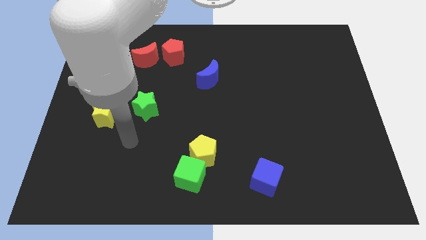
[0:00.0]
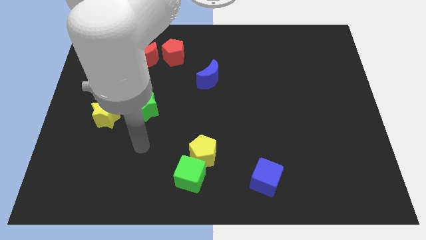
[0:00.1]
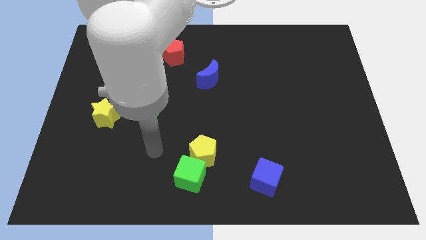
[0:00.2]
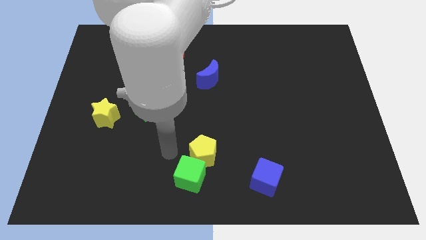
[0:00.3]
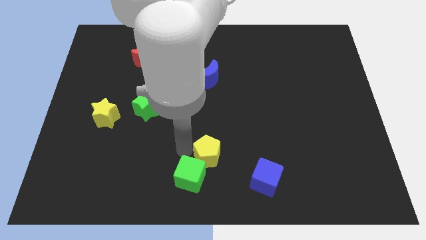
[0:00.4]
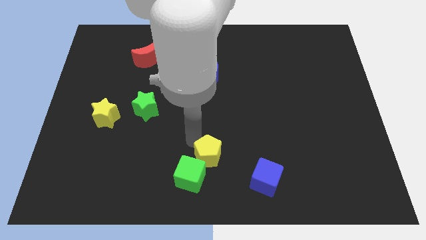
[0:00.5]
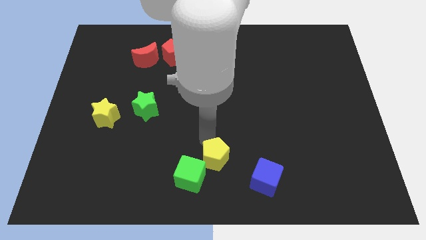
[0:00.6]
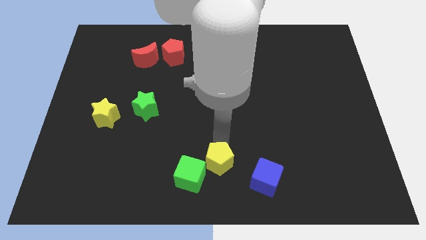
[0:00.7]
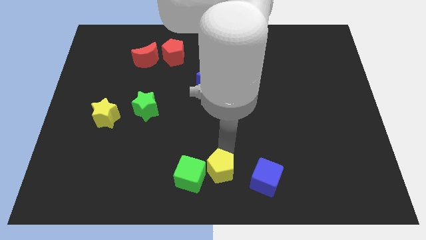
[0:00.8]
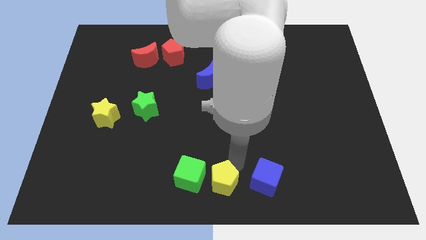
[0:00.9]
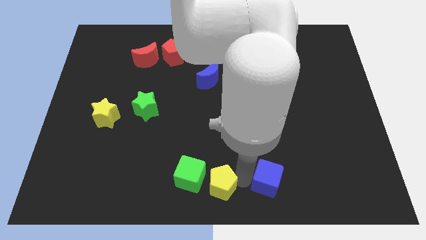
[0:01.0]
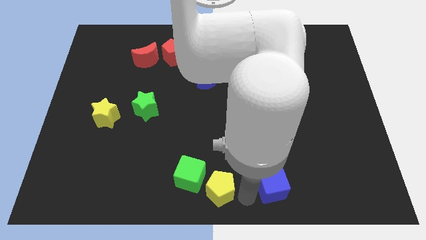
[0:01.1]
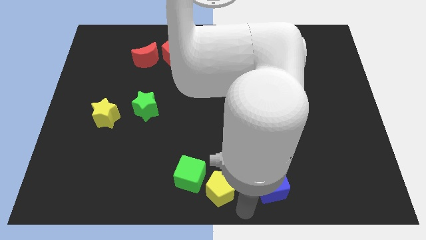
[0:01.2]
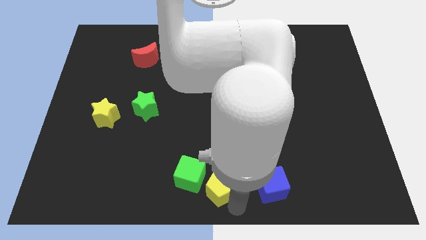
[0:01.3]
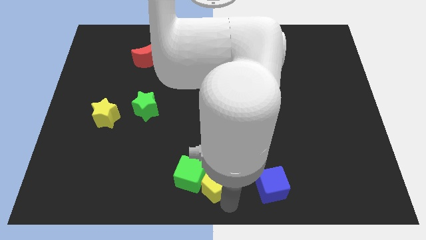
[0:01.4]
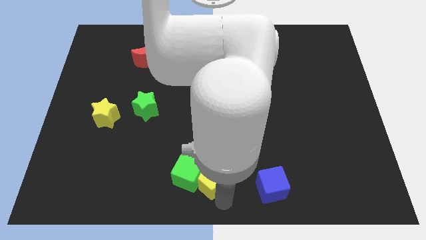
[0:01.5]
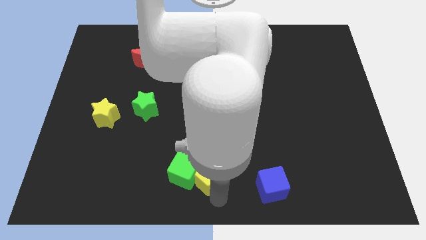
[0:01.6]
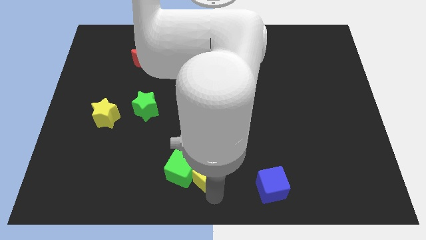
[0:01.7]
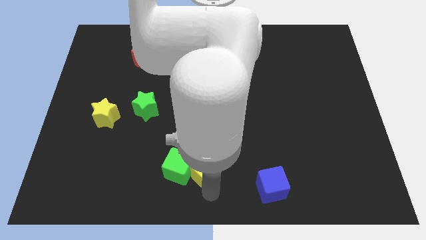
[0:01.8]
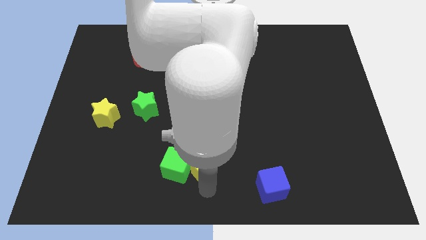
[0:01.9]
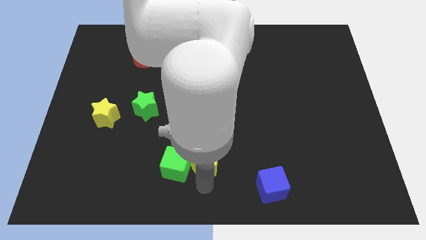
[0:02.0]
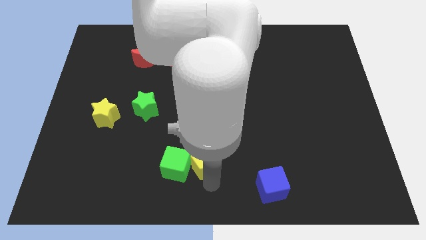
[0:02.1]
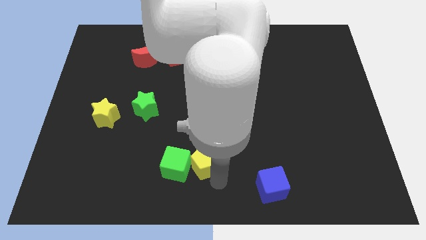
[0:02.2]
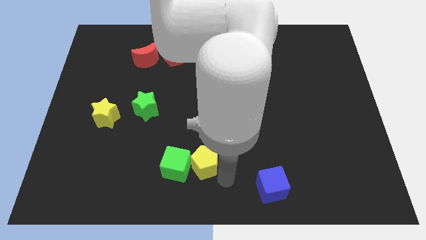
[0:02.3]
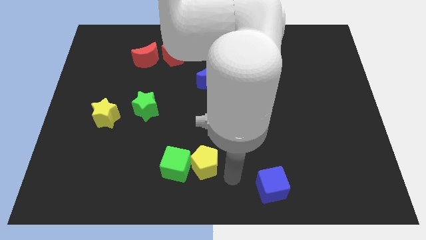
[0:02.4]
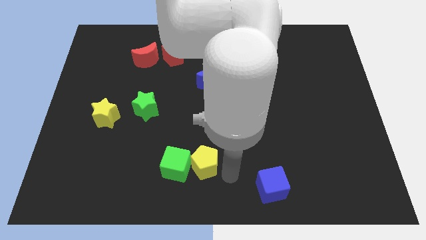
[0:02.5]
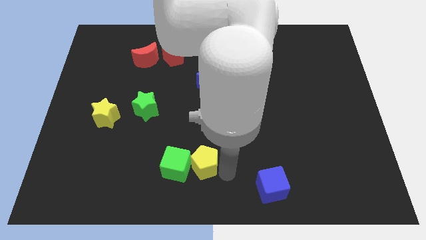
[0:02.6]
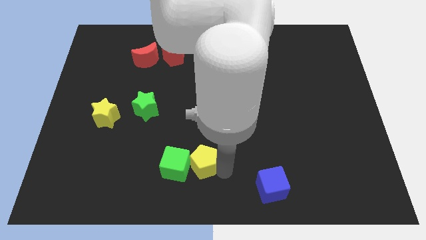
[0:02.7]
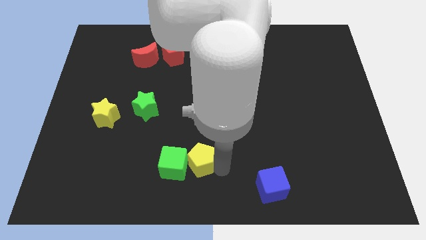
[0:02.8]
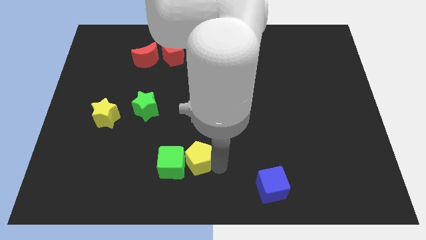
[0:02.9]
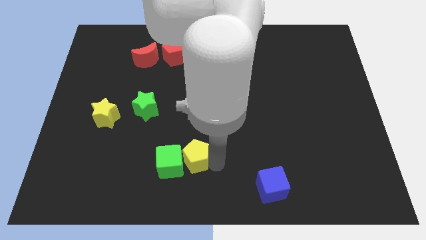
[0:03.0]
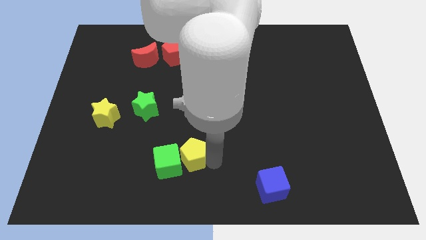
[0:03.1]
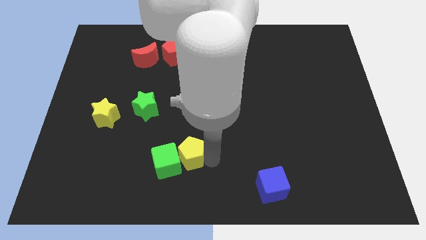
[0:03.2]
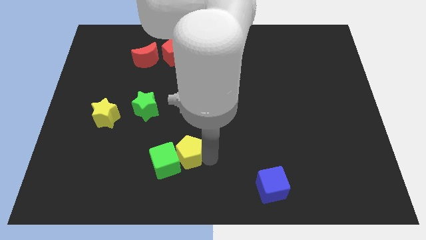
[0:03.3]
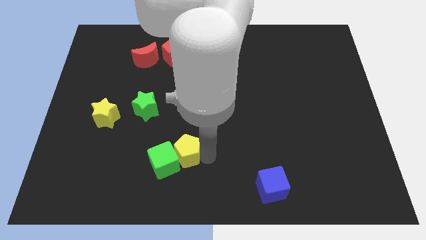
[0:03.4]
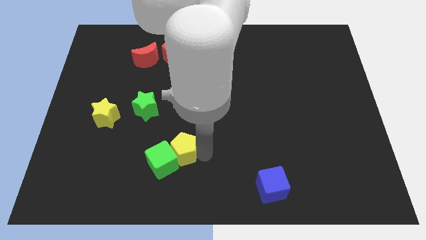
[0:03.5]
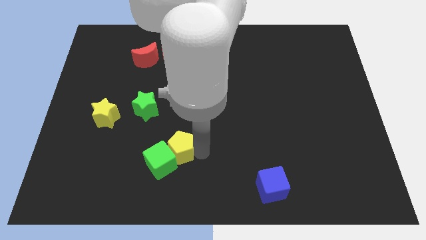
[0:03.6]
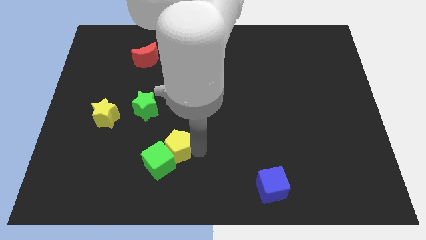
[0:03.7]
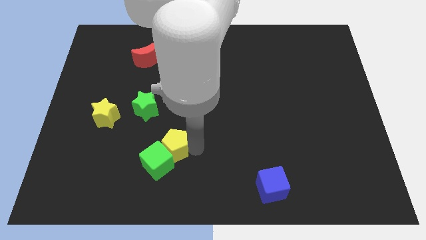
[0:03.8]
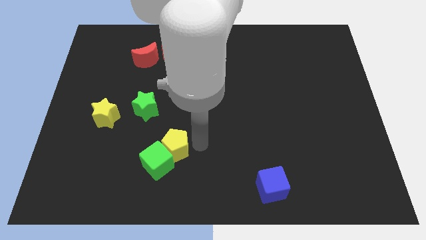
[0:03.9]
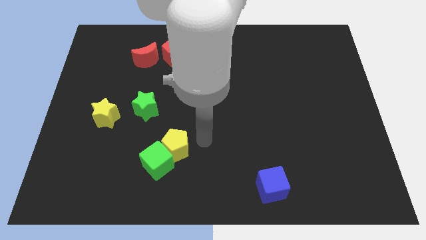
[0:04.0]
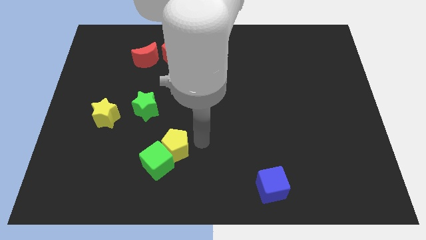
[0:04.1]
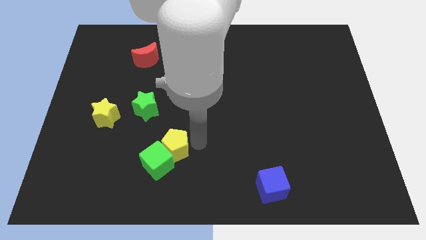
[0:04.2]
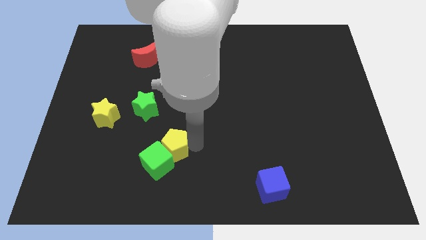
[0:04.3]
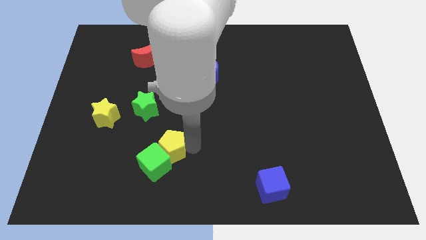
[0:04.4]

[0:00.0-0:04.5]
slide the yellow pentagon somewhat left

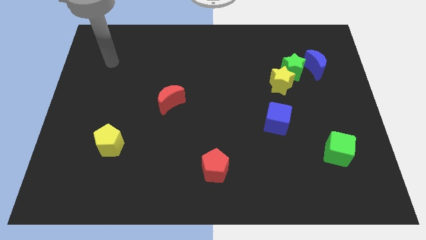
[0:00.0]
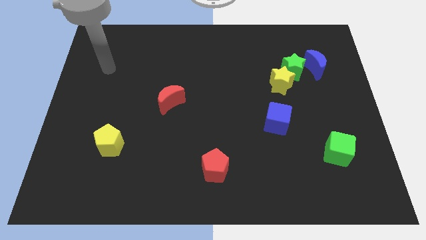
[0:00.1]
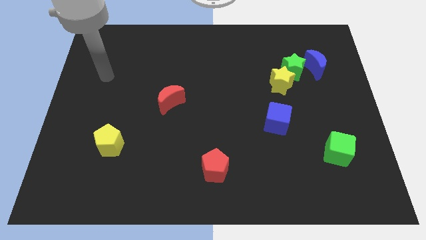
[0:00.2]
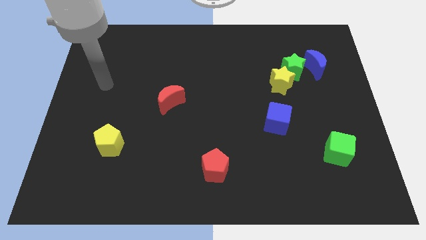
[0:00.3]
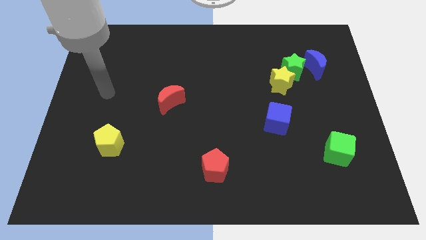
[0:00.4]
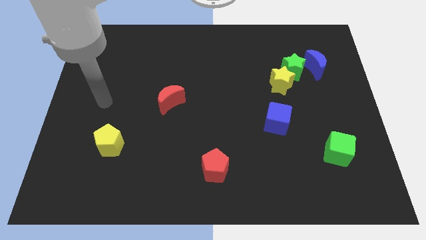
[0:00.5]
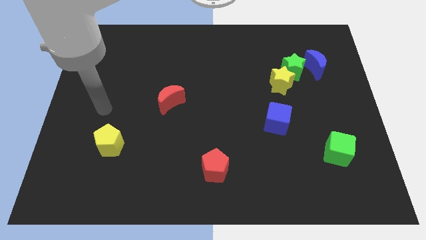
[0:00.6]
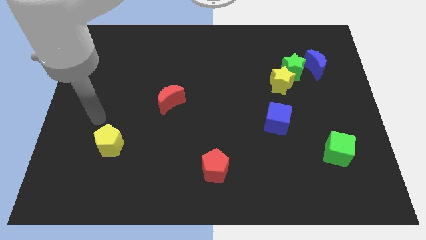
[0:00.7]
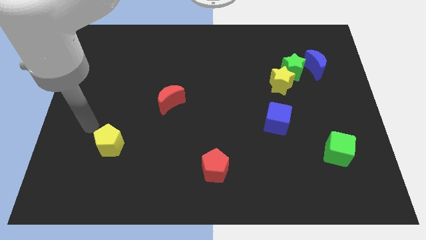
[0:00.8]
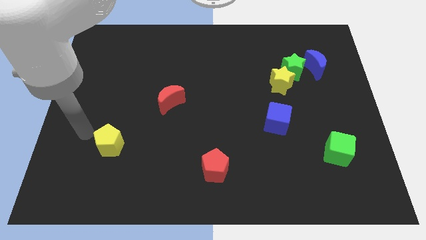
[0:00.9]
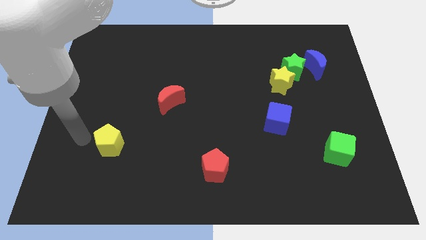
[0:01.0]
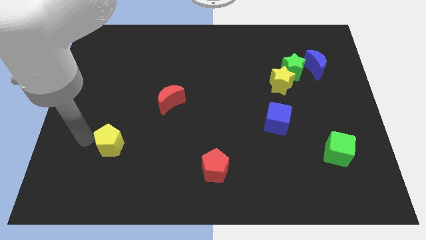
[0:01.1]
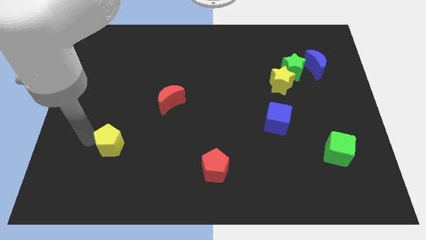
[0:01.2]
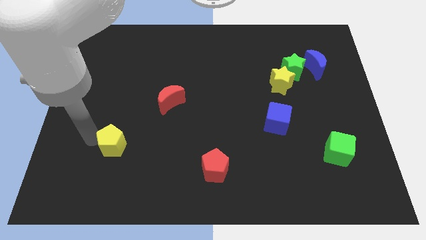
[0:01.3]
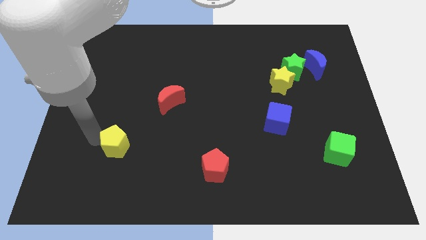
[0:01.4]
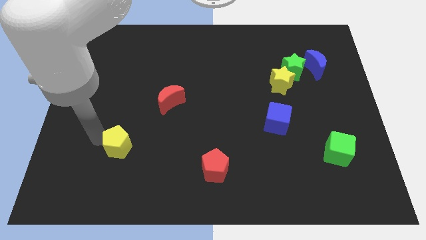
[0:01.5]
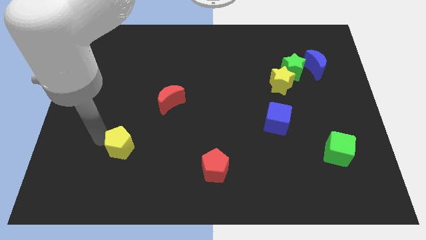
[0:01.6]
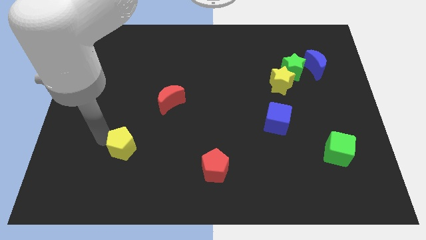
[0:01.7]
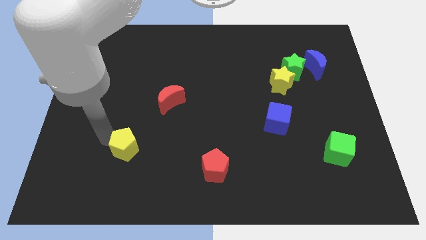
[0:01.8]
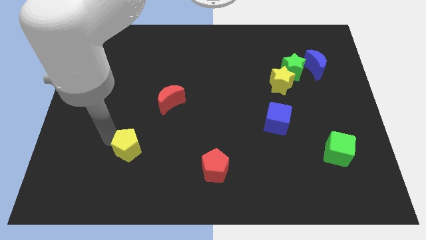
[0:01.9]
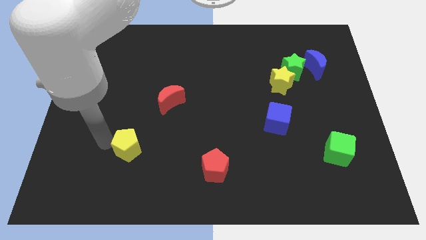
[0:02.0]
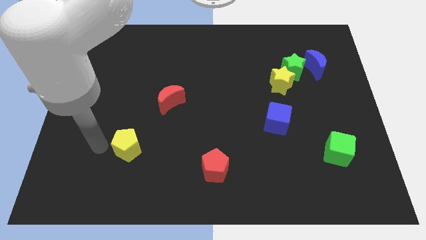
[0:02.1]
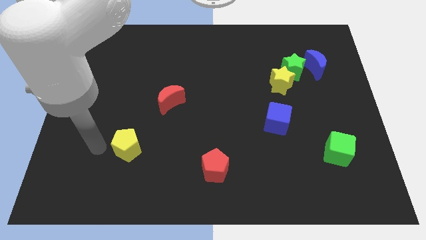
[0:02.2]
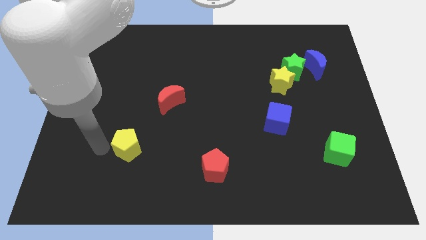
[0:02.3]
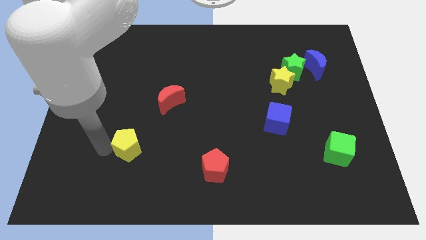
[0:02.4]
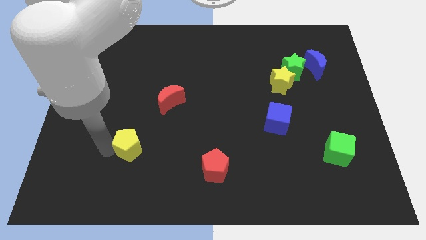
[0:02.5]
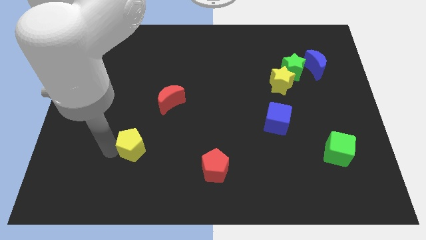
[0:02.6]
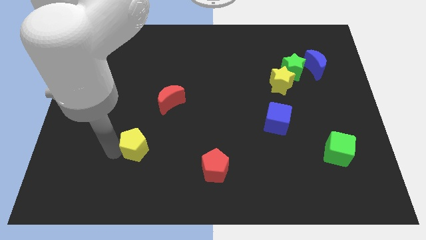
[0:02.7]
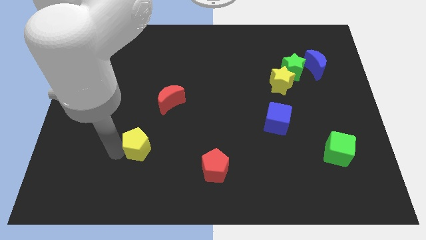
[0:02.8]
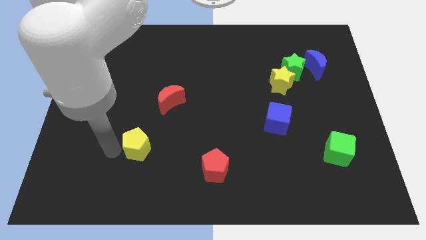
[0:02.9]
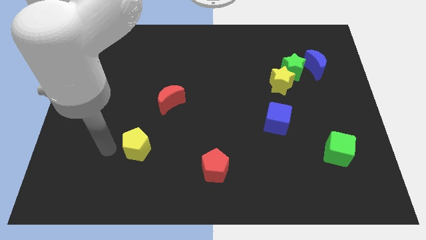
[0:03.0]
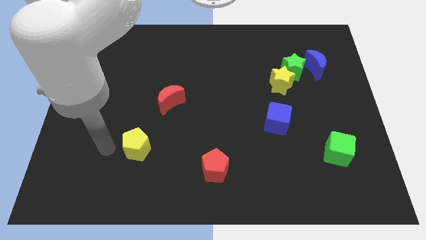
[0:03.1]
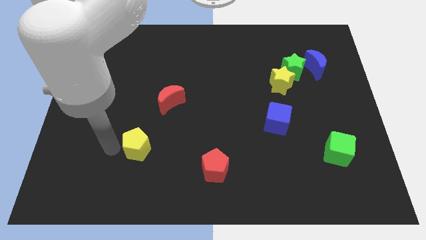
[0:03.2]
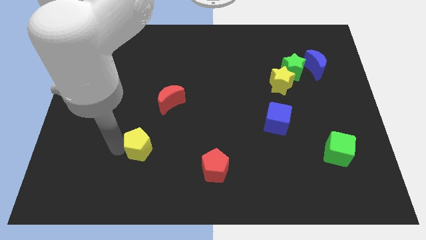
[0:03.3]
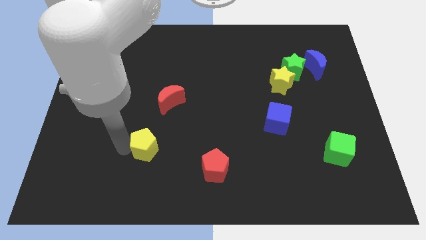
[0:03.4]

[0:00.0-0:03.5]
move the yellow pentagon a little bit right
